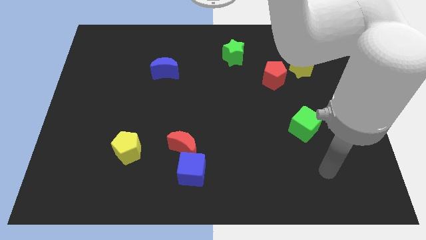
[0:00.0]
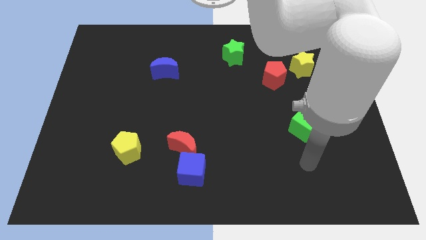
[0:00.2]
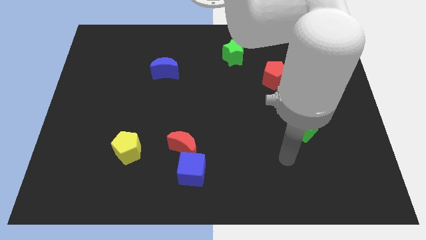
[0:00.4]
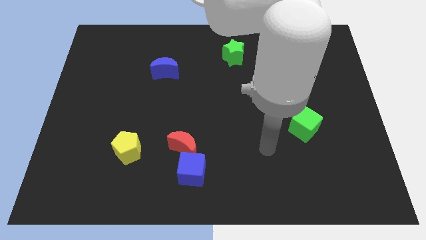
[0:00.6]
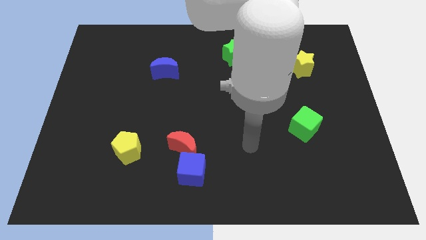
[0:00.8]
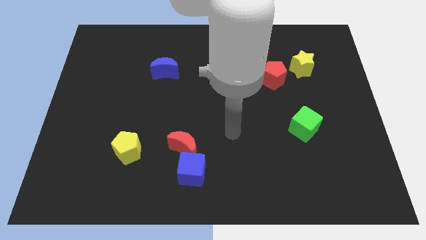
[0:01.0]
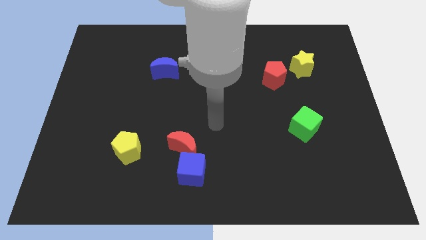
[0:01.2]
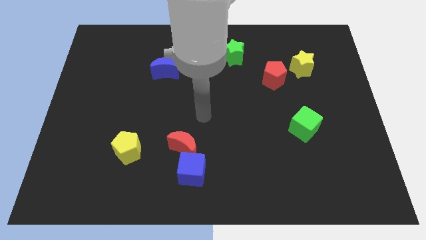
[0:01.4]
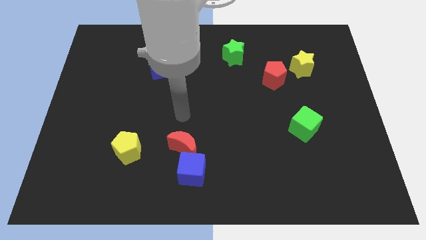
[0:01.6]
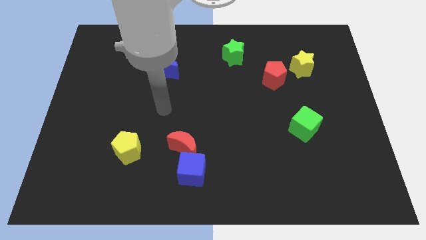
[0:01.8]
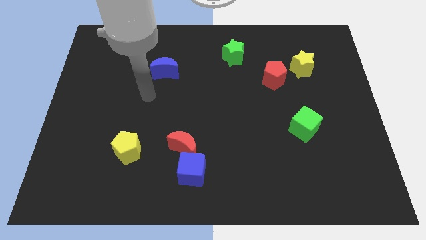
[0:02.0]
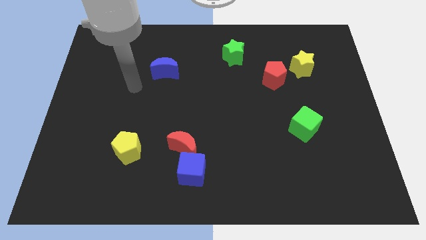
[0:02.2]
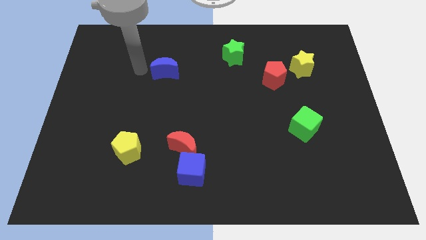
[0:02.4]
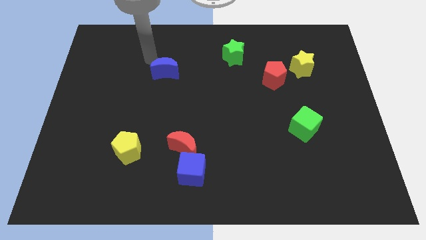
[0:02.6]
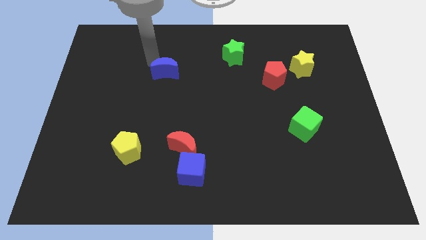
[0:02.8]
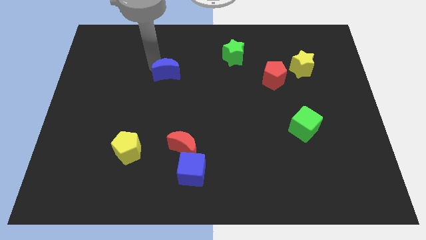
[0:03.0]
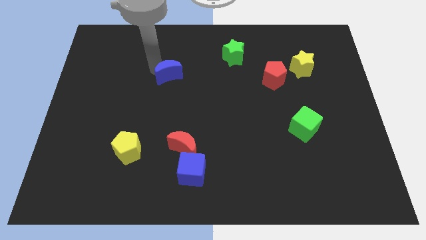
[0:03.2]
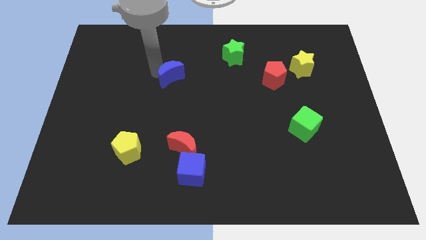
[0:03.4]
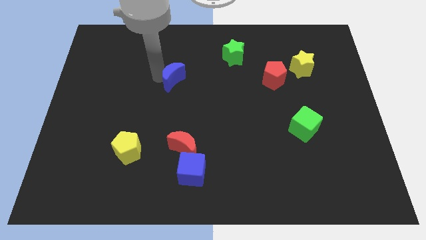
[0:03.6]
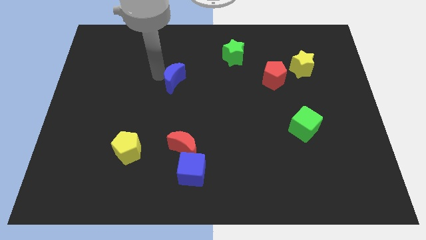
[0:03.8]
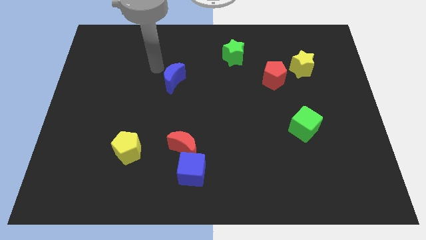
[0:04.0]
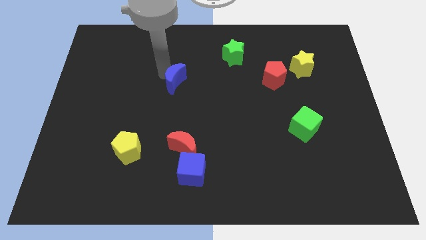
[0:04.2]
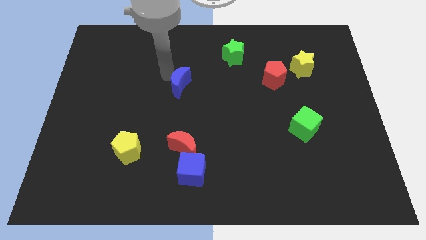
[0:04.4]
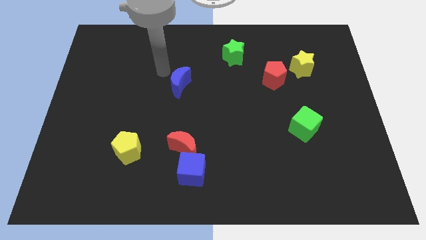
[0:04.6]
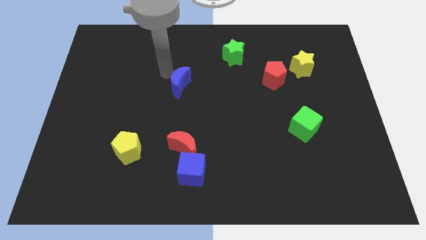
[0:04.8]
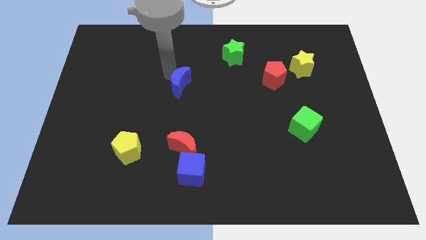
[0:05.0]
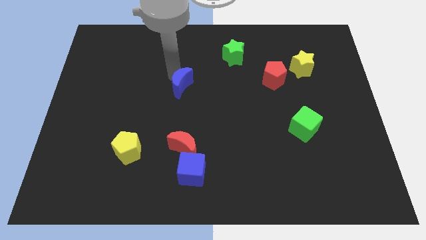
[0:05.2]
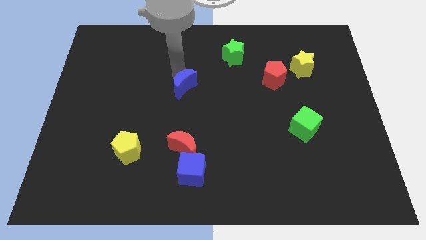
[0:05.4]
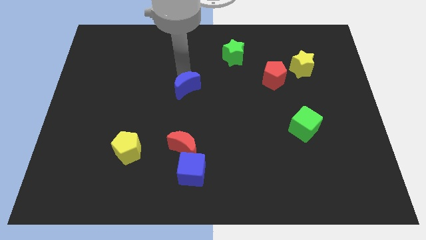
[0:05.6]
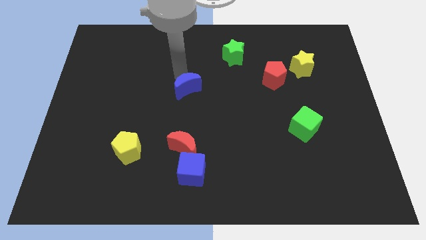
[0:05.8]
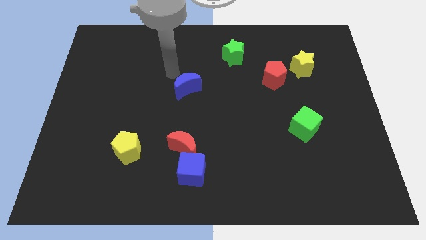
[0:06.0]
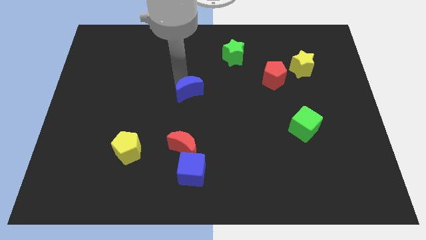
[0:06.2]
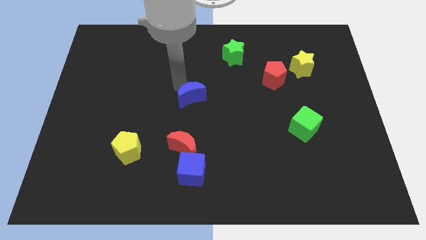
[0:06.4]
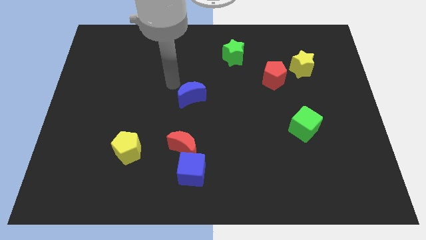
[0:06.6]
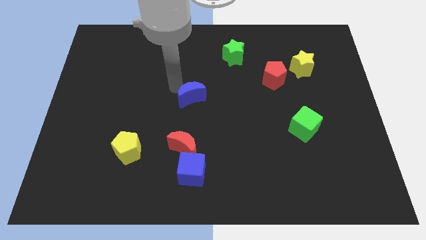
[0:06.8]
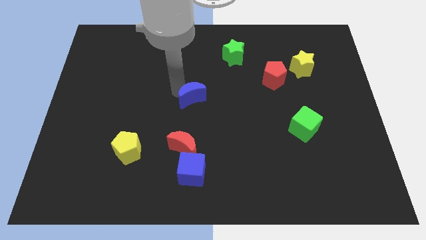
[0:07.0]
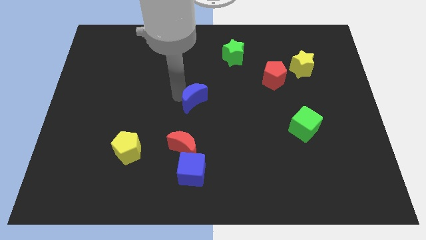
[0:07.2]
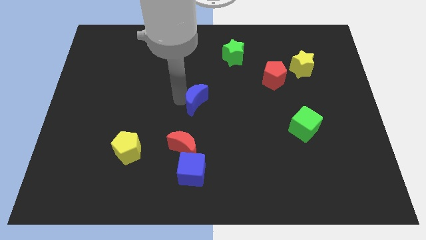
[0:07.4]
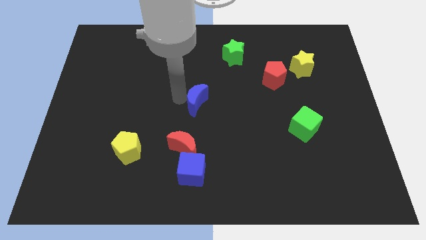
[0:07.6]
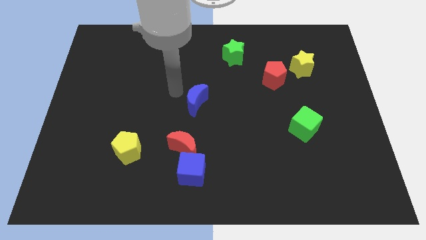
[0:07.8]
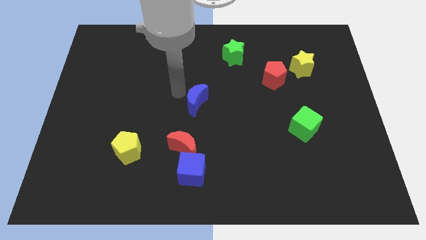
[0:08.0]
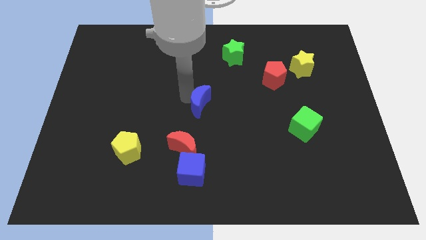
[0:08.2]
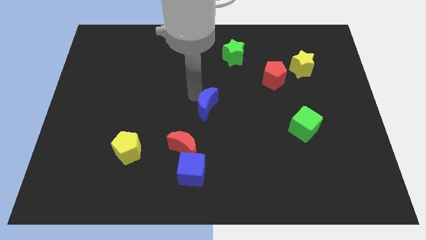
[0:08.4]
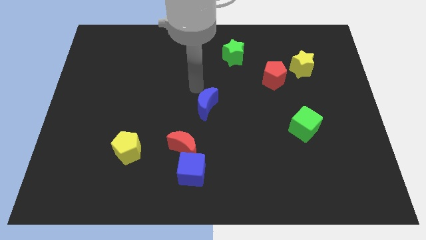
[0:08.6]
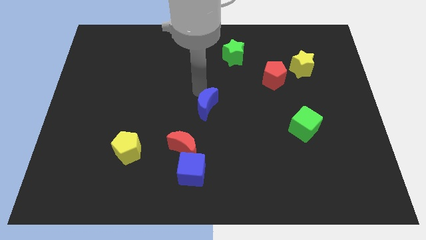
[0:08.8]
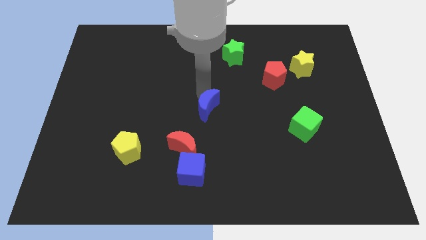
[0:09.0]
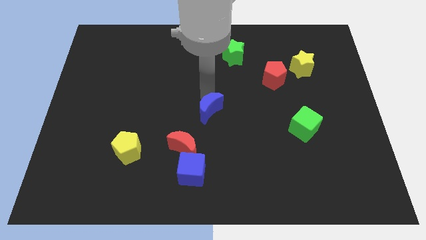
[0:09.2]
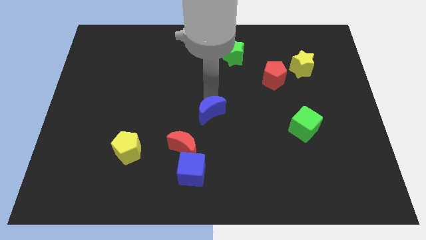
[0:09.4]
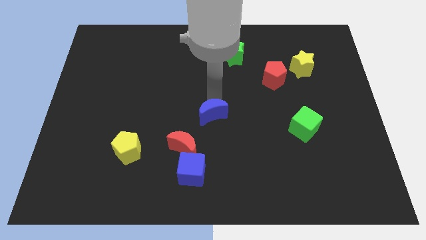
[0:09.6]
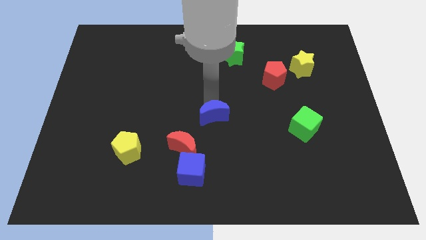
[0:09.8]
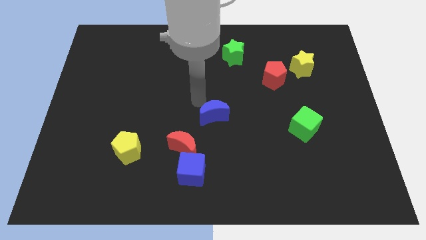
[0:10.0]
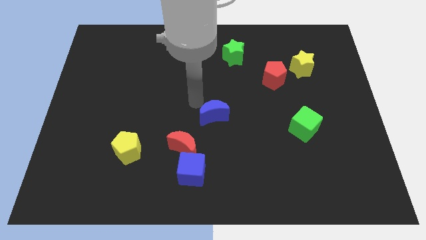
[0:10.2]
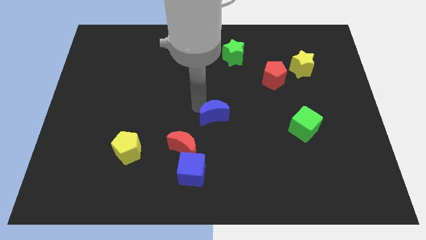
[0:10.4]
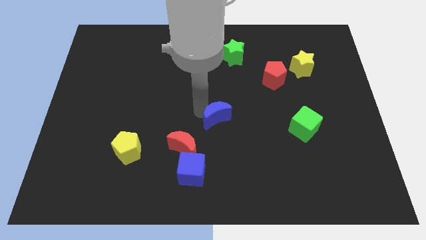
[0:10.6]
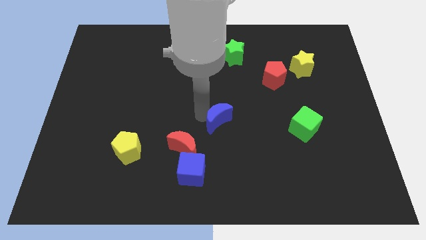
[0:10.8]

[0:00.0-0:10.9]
push the blue moon down and to the right

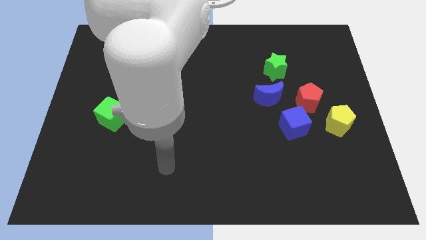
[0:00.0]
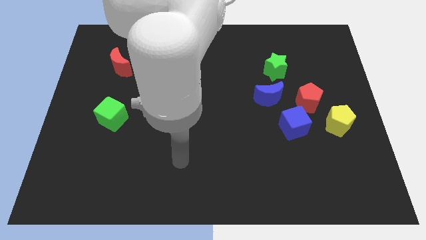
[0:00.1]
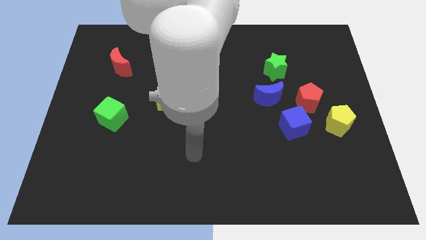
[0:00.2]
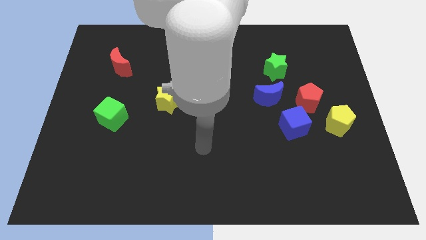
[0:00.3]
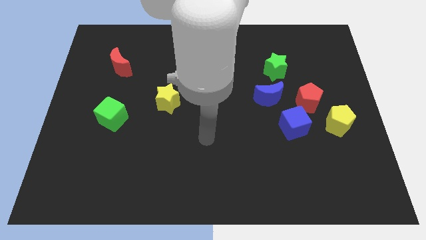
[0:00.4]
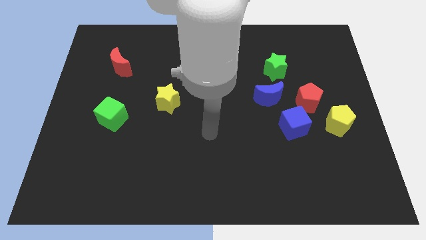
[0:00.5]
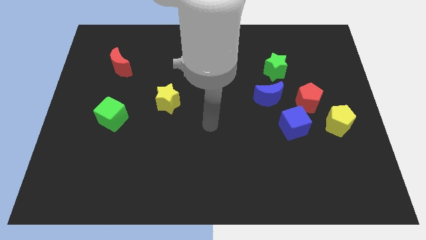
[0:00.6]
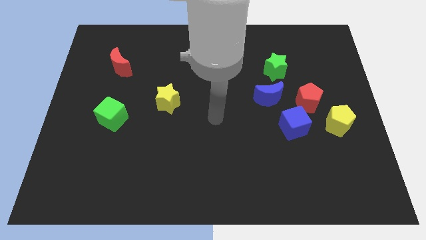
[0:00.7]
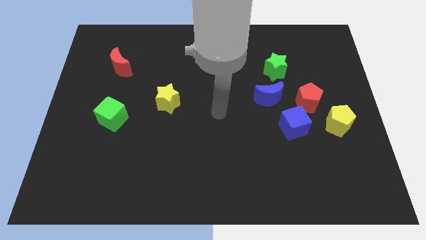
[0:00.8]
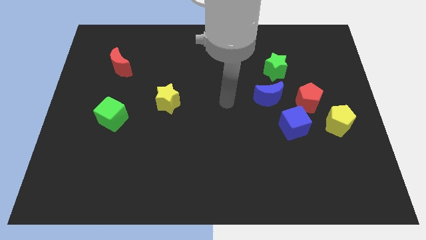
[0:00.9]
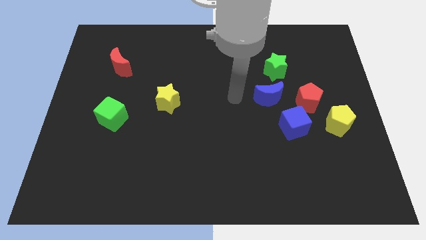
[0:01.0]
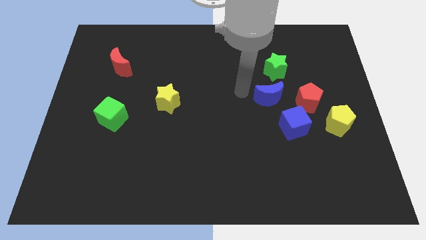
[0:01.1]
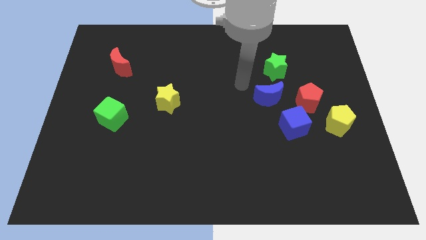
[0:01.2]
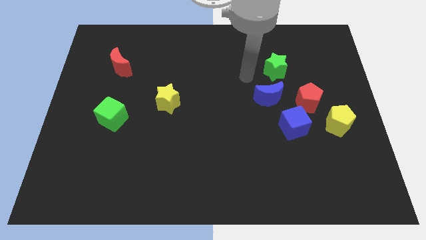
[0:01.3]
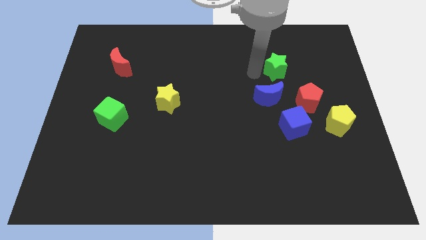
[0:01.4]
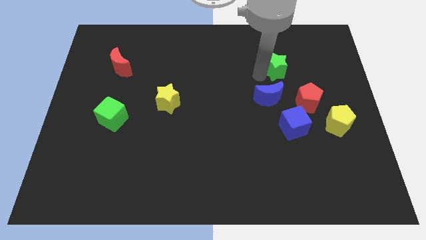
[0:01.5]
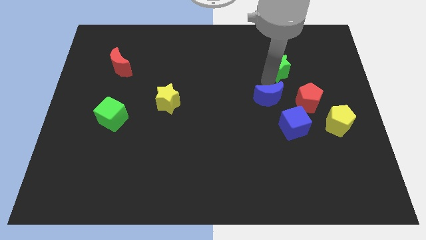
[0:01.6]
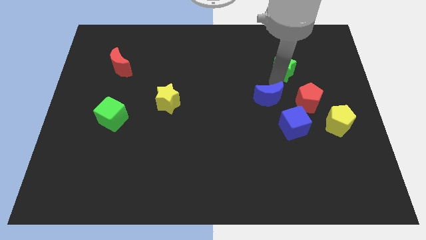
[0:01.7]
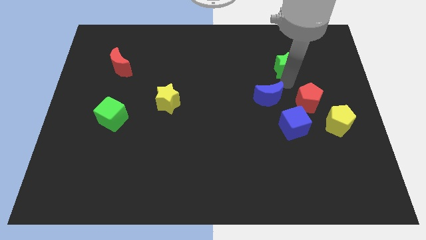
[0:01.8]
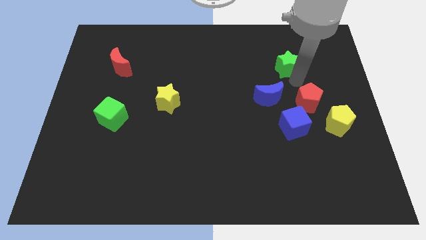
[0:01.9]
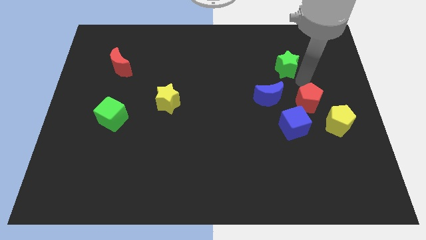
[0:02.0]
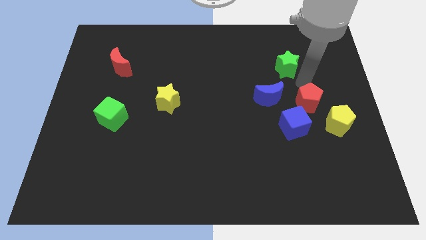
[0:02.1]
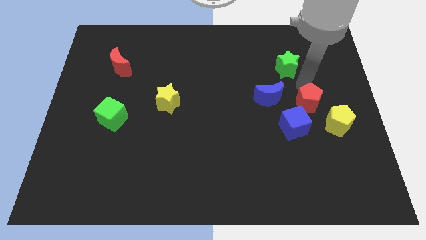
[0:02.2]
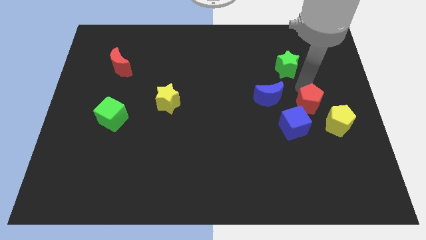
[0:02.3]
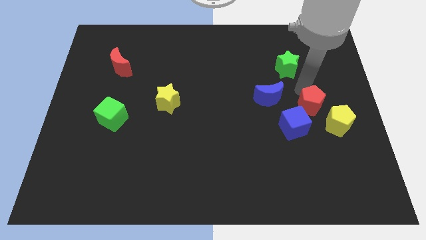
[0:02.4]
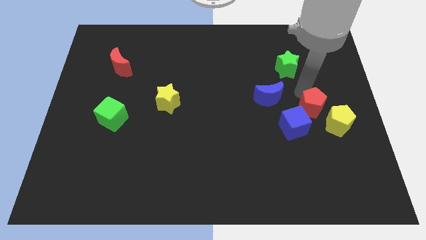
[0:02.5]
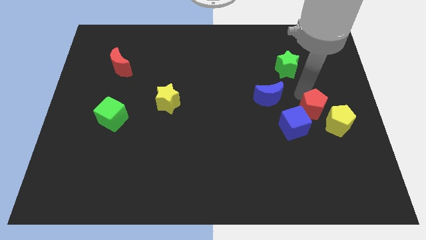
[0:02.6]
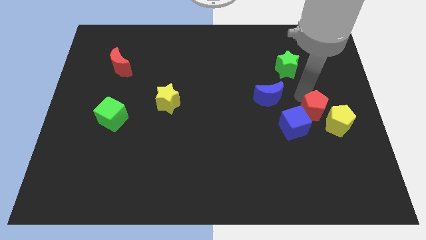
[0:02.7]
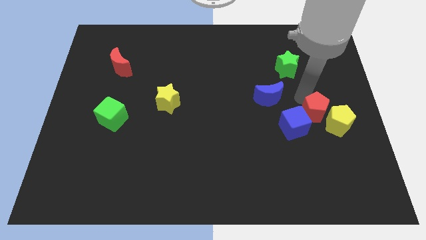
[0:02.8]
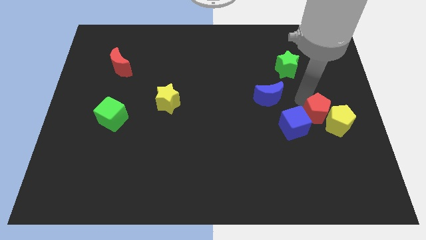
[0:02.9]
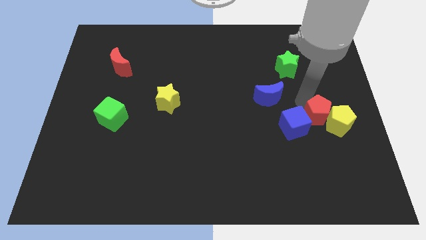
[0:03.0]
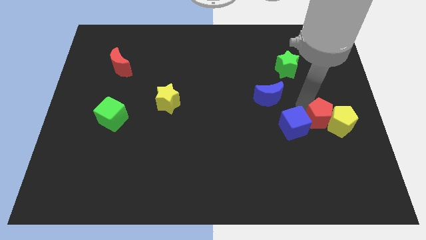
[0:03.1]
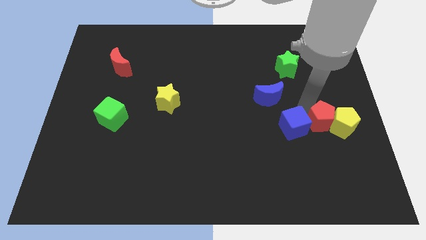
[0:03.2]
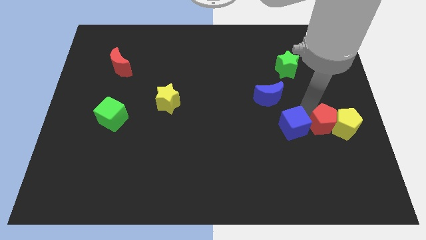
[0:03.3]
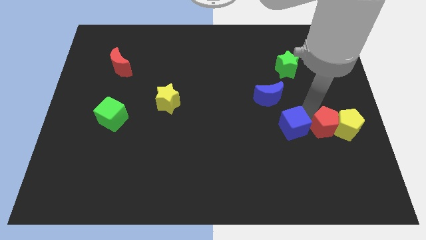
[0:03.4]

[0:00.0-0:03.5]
slightly move the red pentagon down
